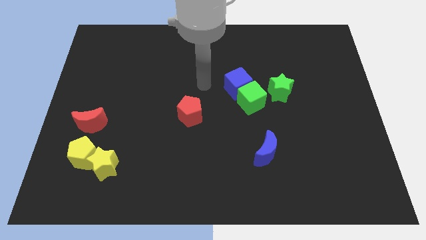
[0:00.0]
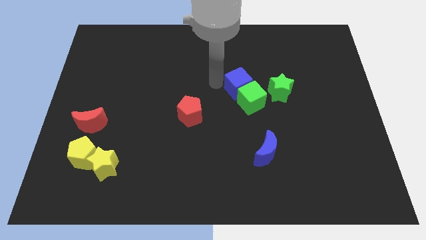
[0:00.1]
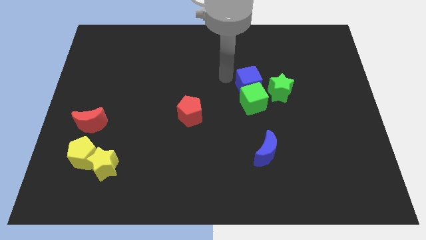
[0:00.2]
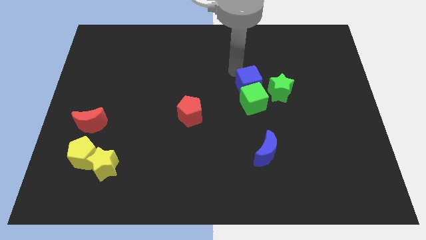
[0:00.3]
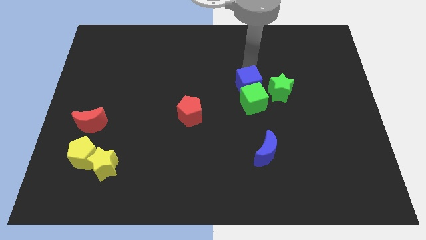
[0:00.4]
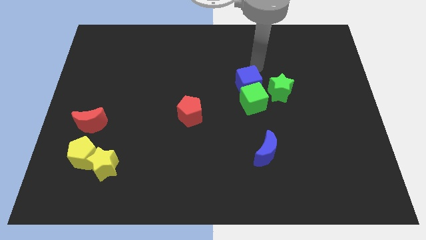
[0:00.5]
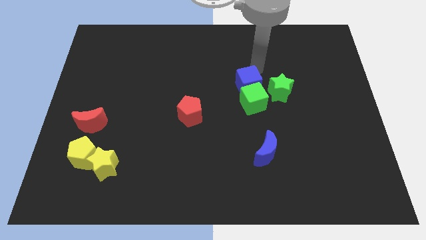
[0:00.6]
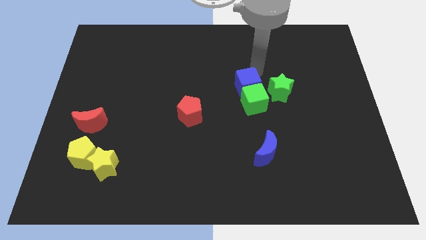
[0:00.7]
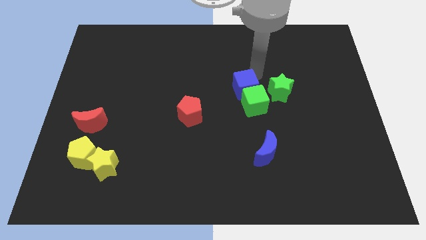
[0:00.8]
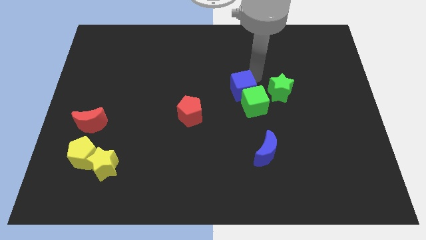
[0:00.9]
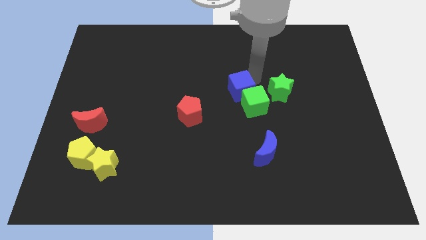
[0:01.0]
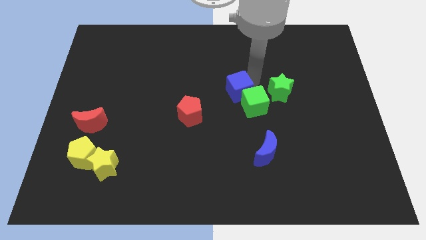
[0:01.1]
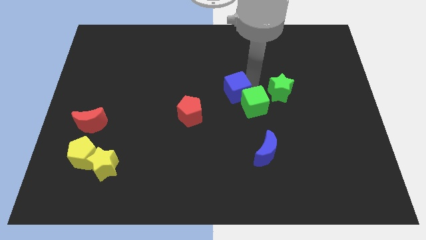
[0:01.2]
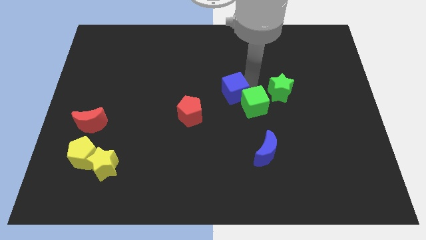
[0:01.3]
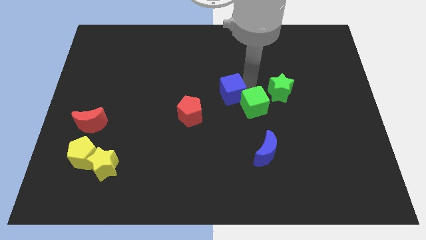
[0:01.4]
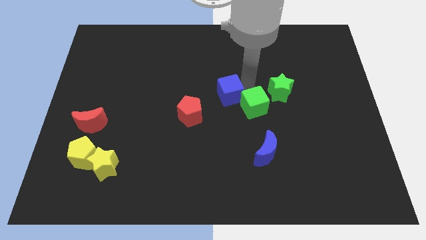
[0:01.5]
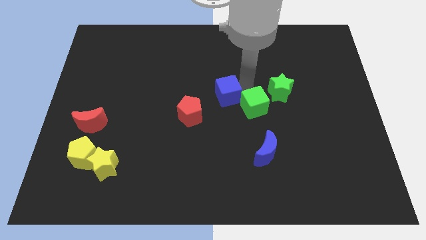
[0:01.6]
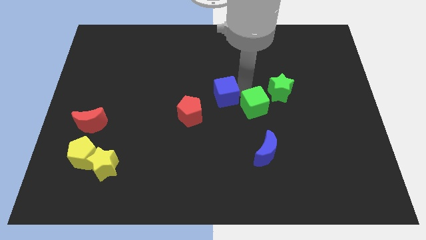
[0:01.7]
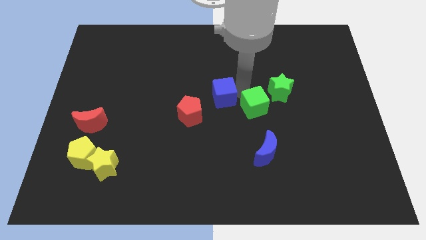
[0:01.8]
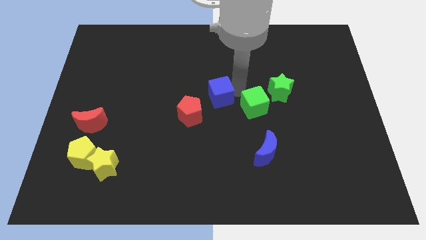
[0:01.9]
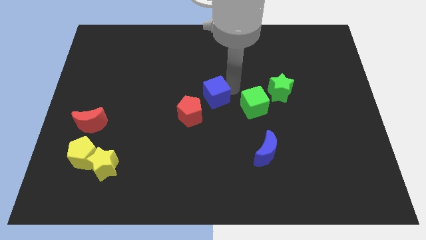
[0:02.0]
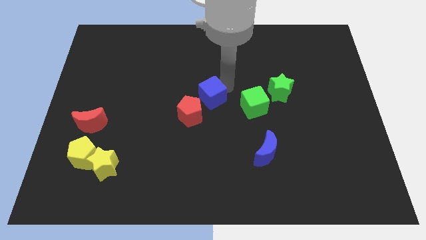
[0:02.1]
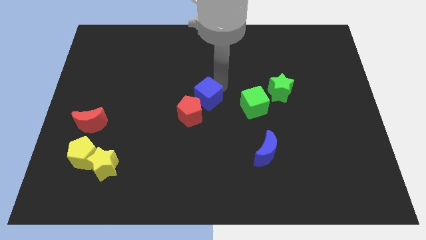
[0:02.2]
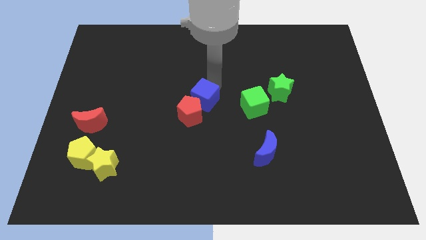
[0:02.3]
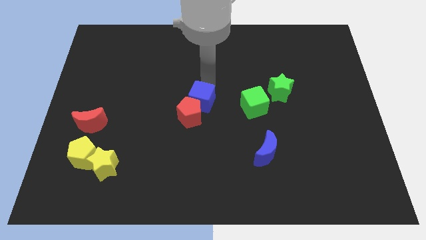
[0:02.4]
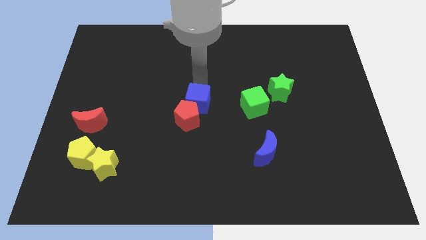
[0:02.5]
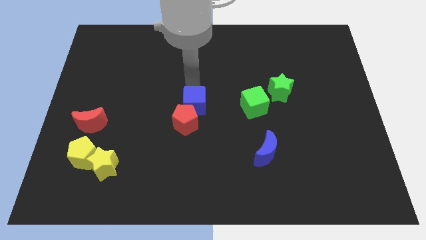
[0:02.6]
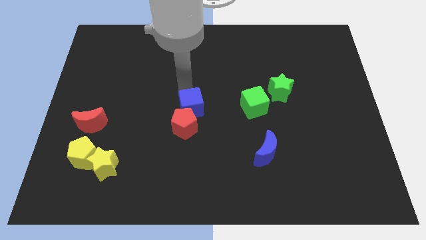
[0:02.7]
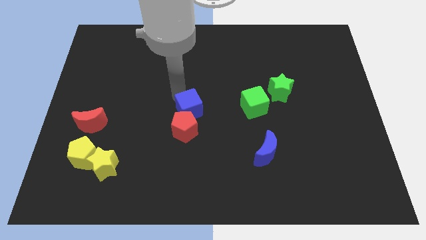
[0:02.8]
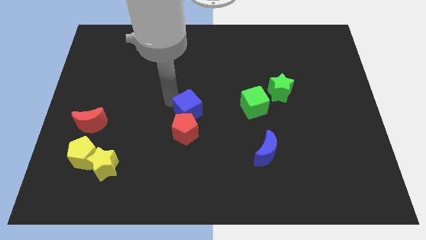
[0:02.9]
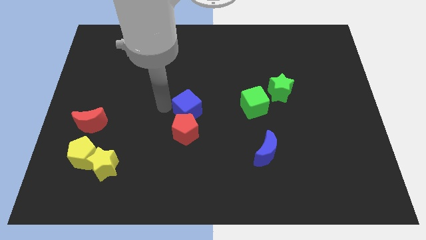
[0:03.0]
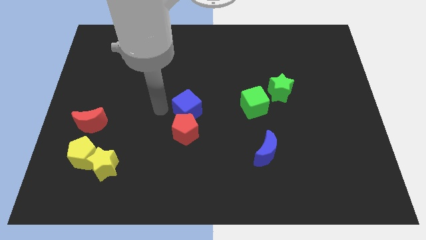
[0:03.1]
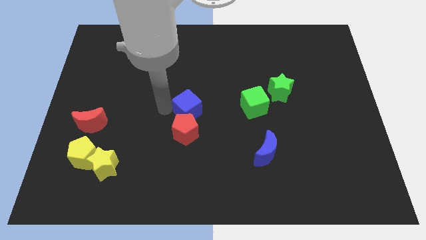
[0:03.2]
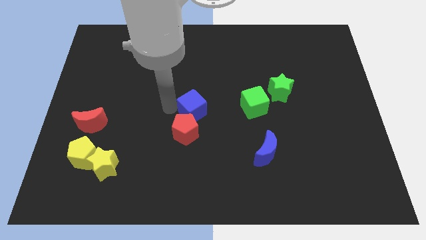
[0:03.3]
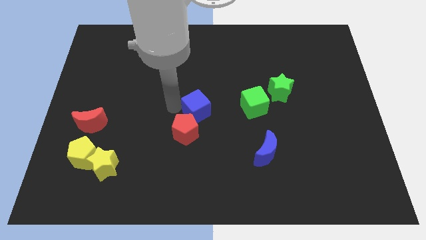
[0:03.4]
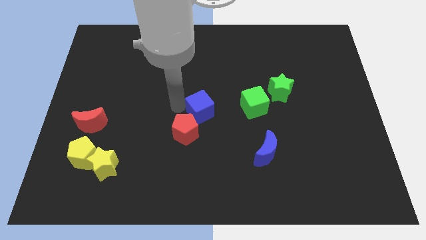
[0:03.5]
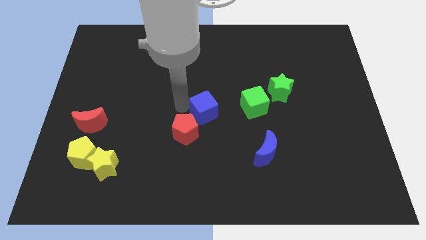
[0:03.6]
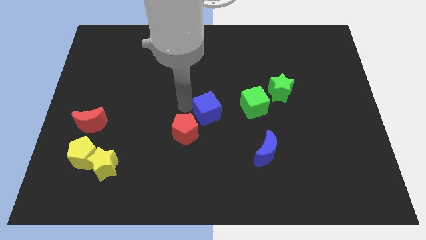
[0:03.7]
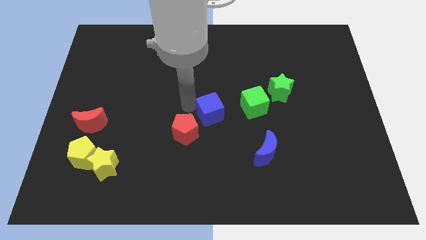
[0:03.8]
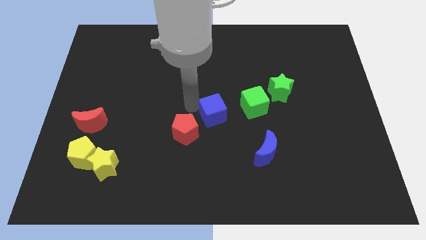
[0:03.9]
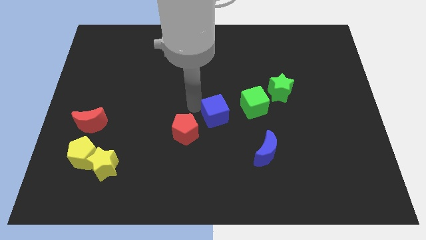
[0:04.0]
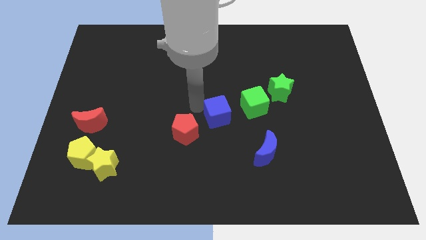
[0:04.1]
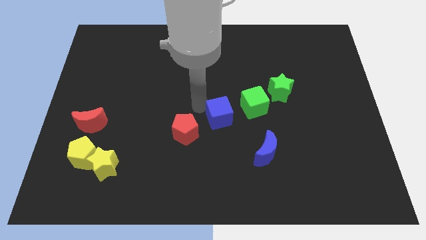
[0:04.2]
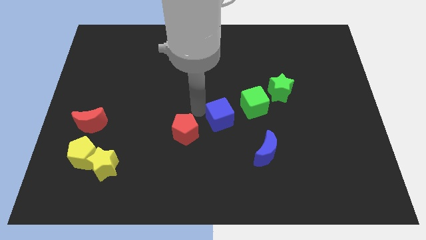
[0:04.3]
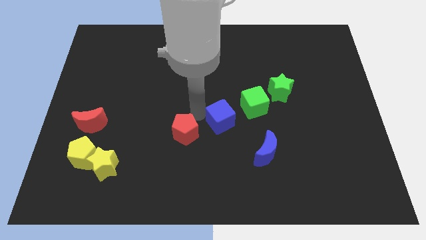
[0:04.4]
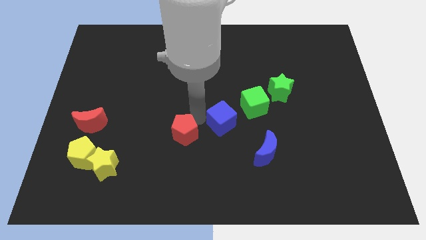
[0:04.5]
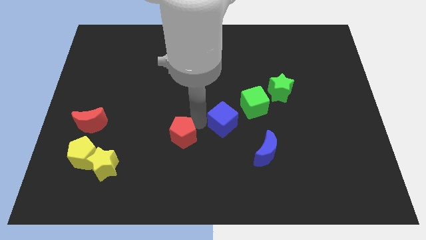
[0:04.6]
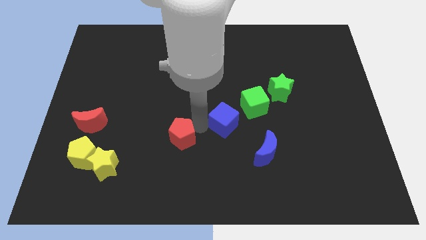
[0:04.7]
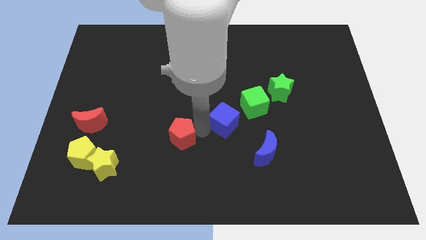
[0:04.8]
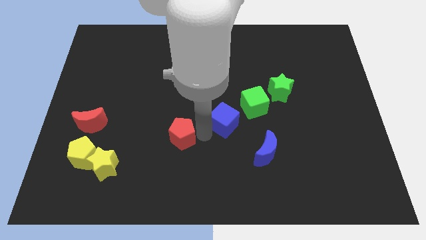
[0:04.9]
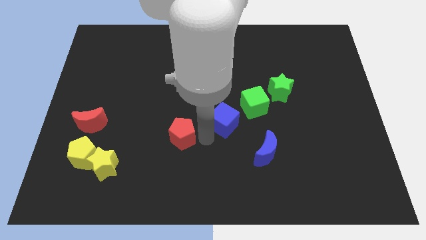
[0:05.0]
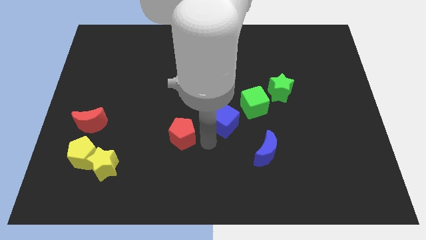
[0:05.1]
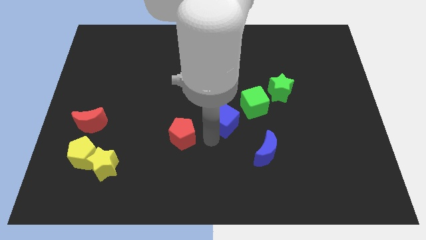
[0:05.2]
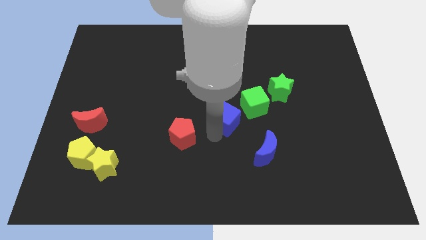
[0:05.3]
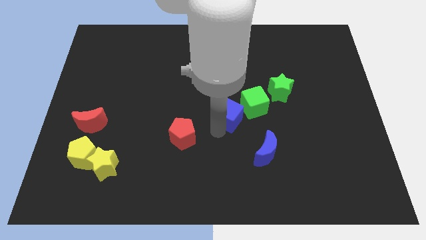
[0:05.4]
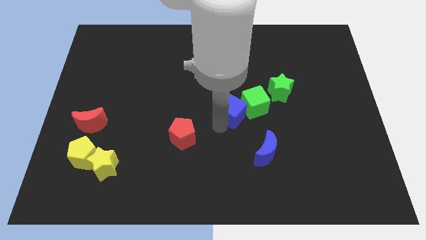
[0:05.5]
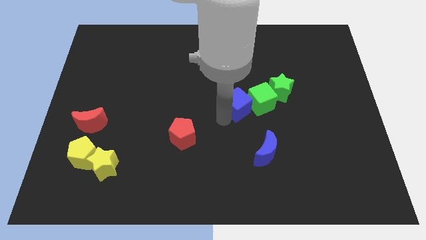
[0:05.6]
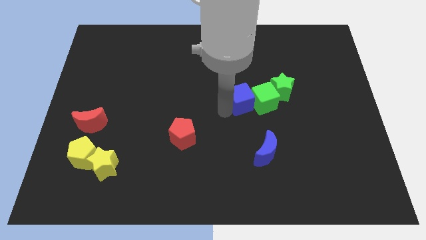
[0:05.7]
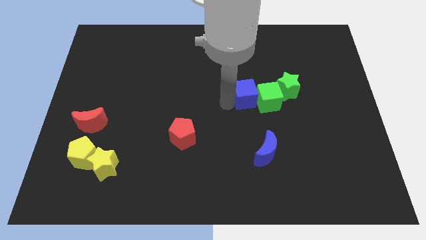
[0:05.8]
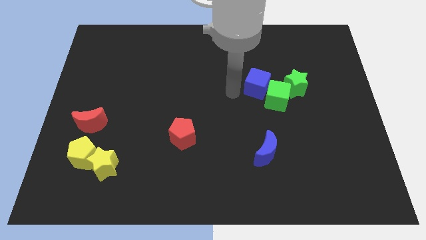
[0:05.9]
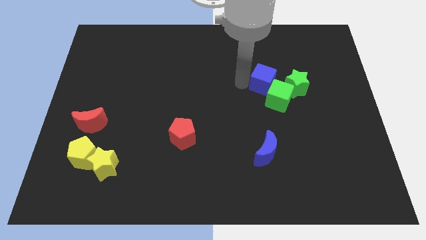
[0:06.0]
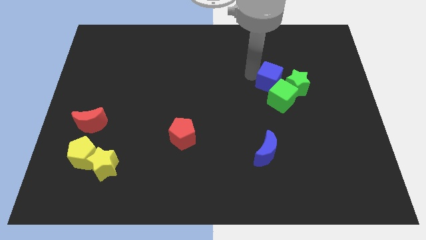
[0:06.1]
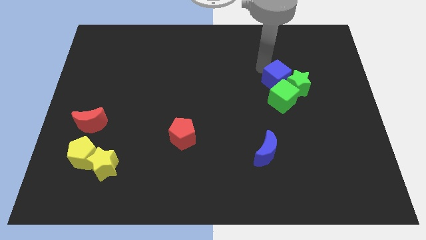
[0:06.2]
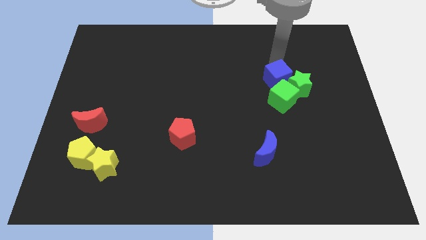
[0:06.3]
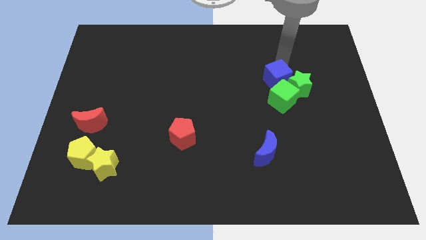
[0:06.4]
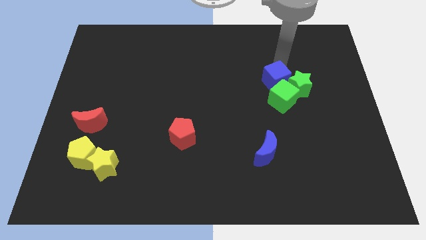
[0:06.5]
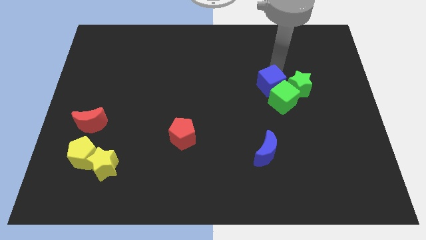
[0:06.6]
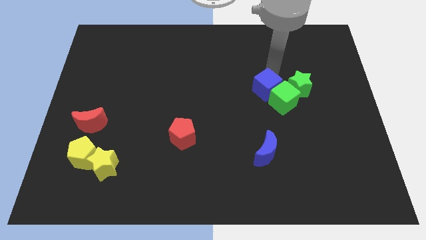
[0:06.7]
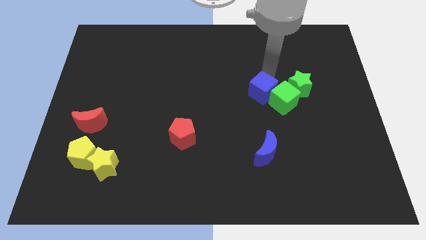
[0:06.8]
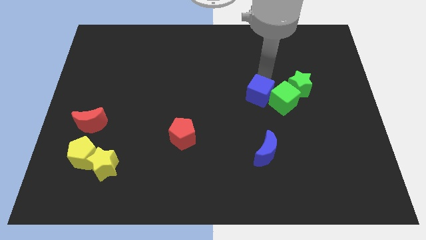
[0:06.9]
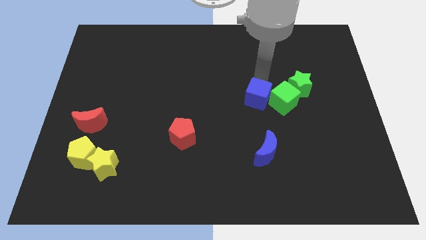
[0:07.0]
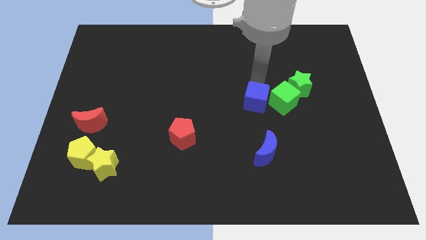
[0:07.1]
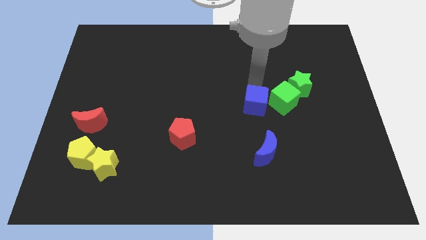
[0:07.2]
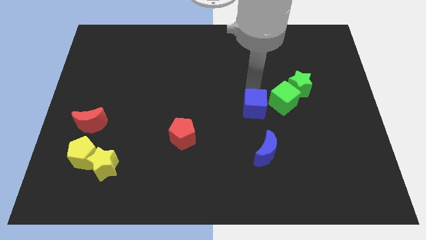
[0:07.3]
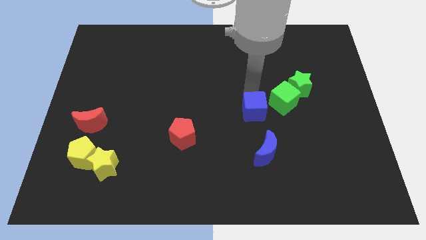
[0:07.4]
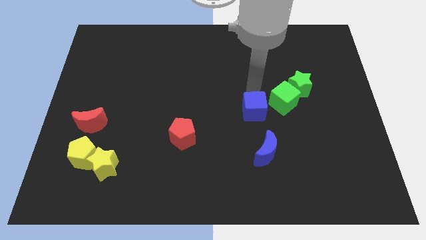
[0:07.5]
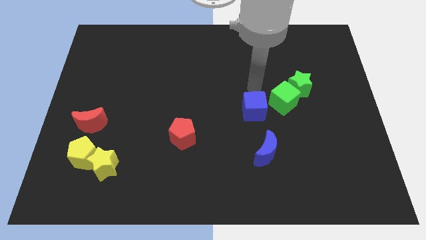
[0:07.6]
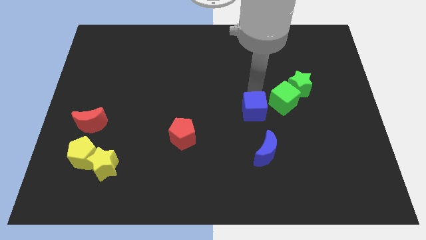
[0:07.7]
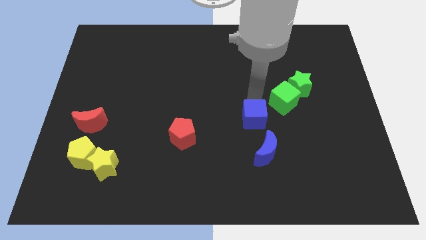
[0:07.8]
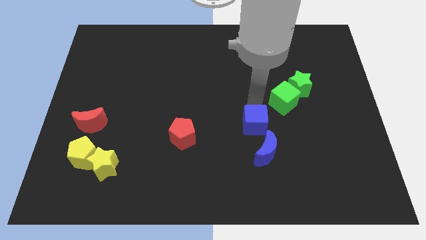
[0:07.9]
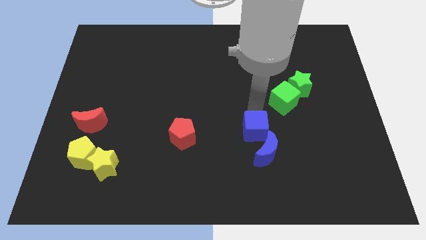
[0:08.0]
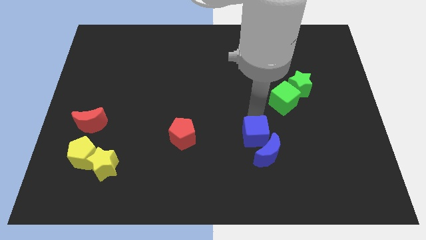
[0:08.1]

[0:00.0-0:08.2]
push the blue cube close to the blue moon
